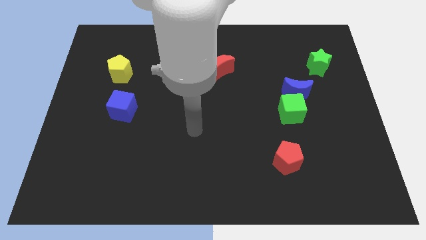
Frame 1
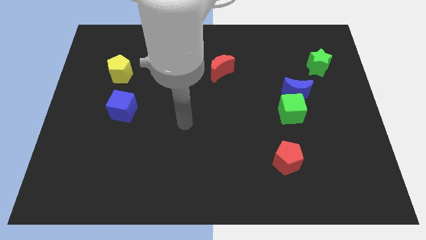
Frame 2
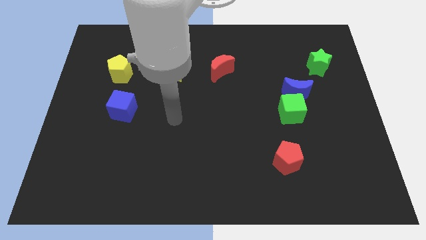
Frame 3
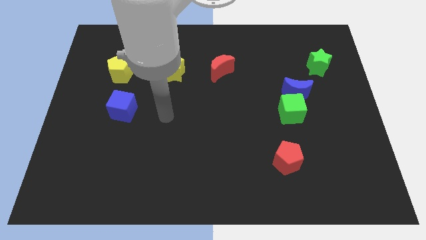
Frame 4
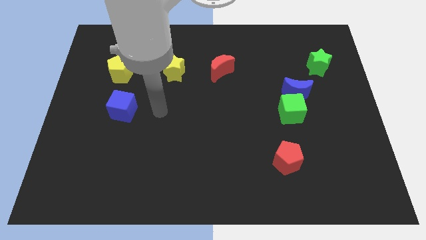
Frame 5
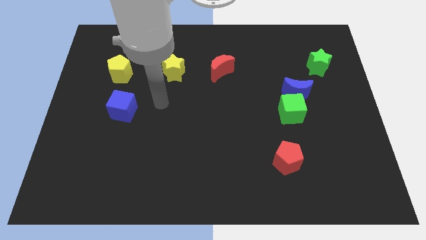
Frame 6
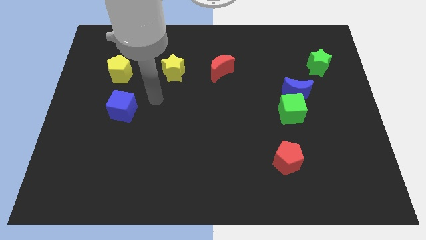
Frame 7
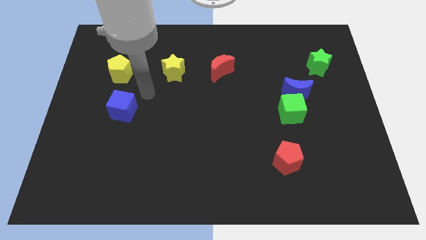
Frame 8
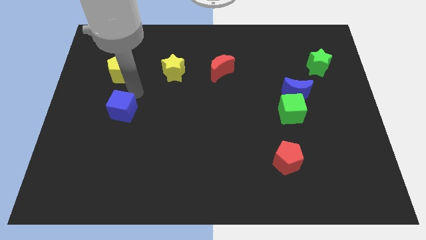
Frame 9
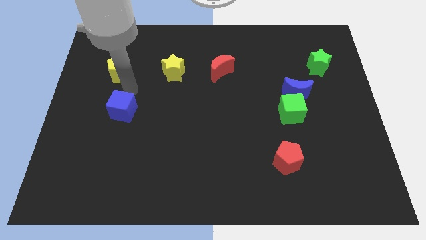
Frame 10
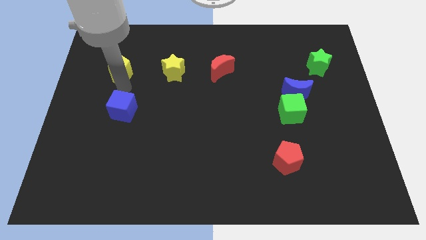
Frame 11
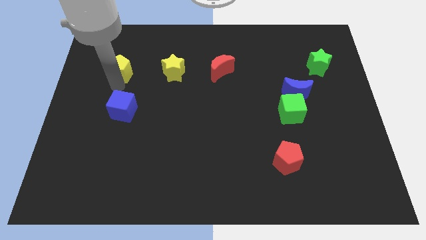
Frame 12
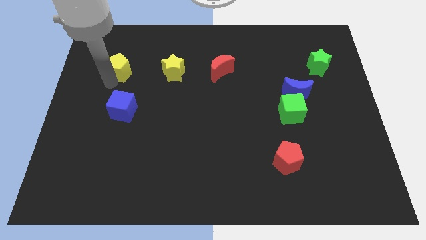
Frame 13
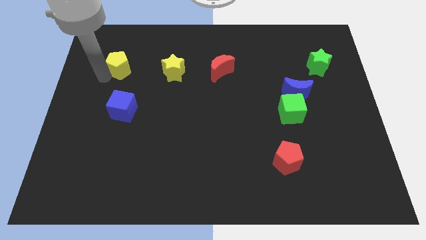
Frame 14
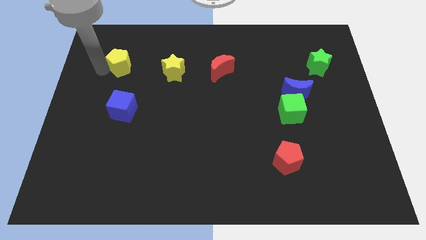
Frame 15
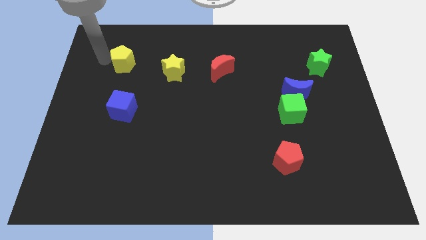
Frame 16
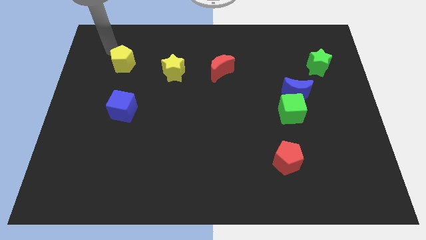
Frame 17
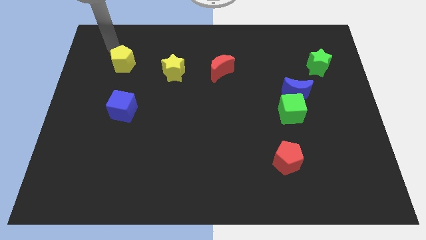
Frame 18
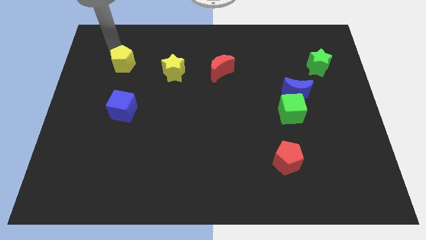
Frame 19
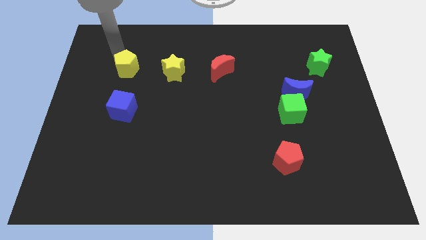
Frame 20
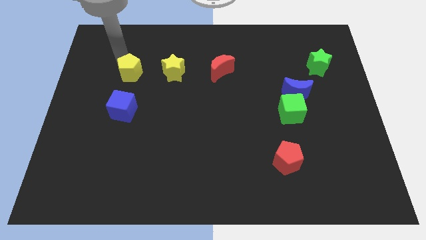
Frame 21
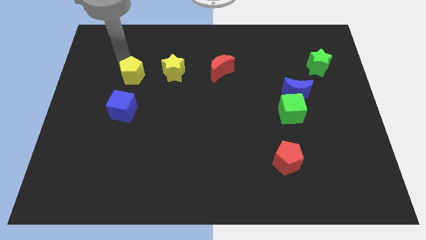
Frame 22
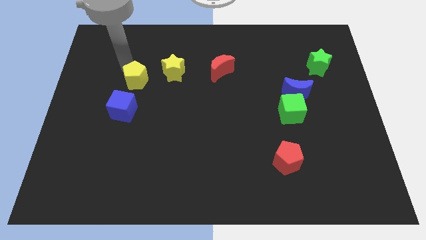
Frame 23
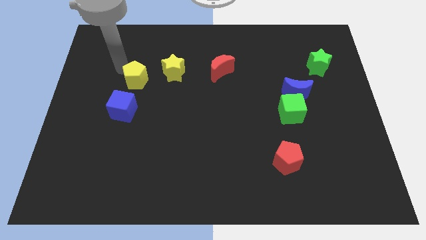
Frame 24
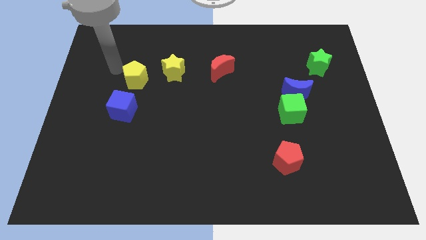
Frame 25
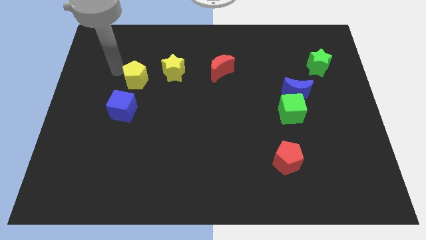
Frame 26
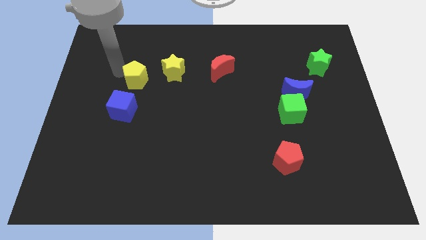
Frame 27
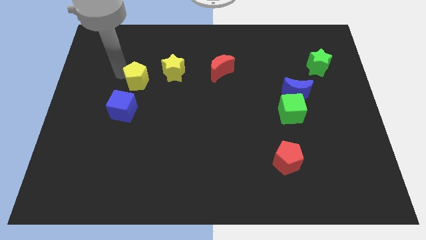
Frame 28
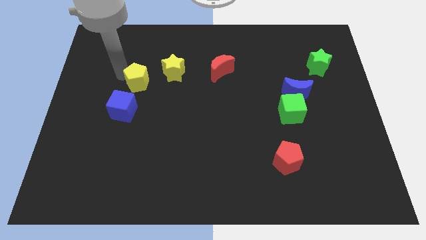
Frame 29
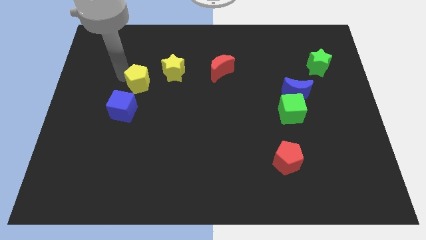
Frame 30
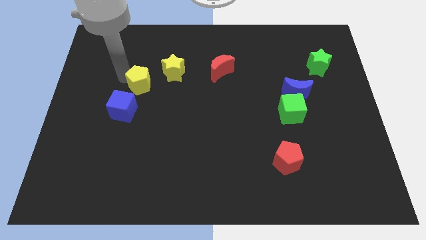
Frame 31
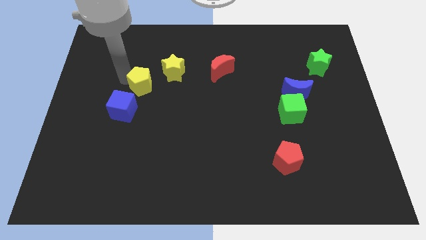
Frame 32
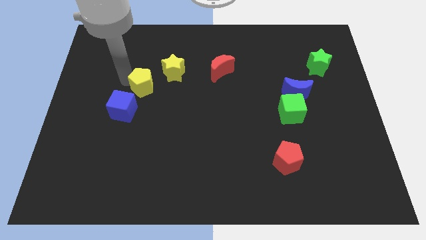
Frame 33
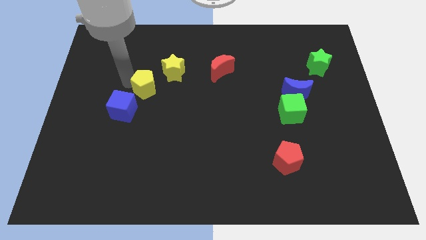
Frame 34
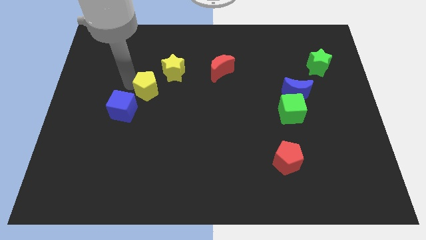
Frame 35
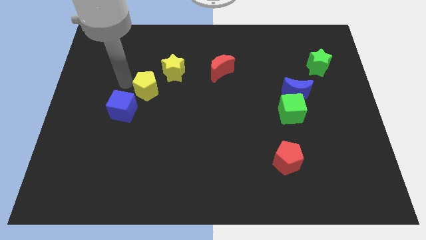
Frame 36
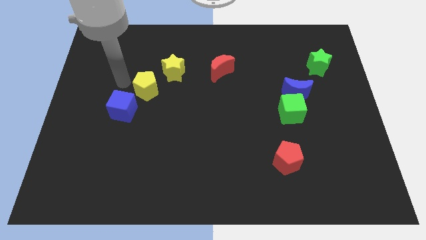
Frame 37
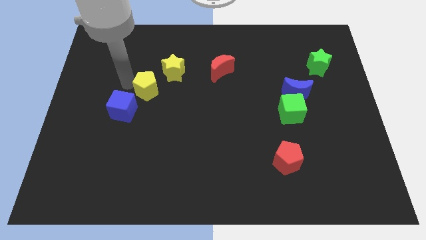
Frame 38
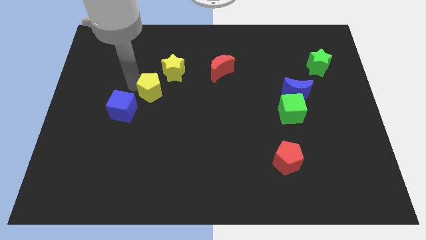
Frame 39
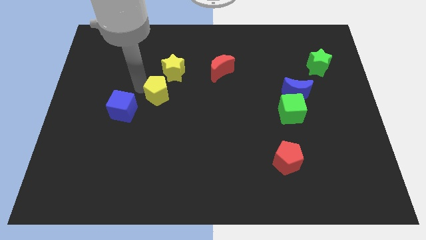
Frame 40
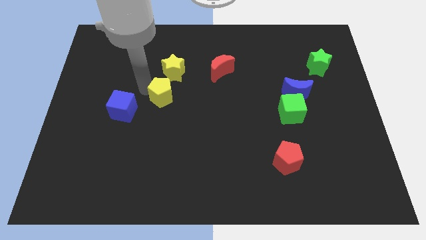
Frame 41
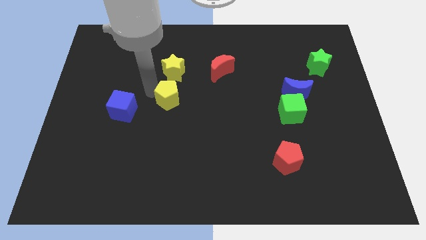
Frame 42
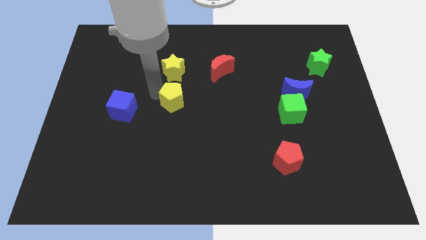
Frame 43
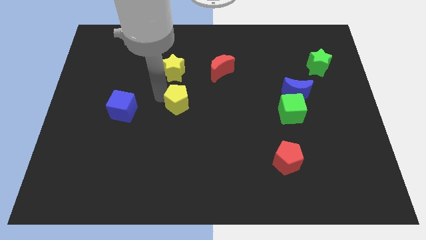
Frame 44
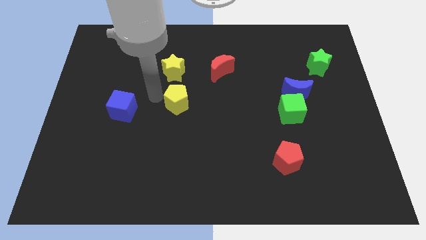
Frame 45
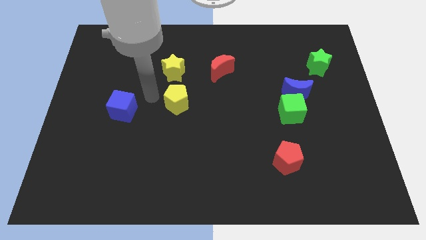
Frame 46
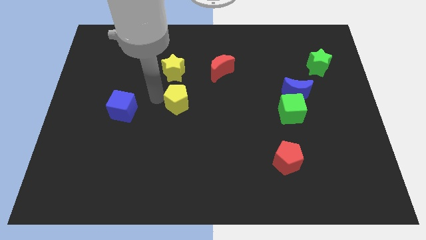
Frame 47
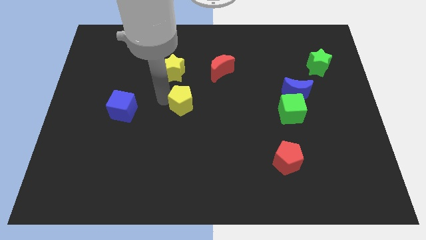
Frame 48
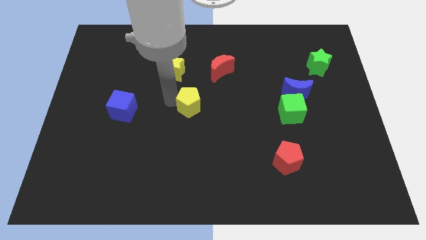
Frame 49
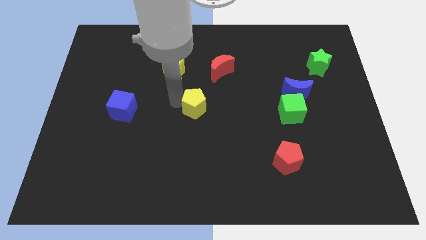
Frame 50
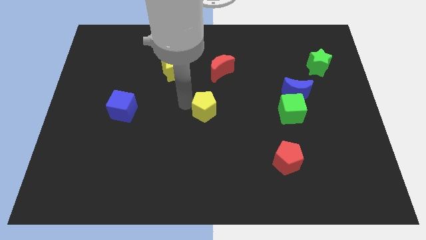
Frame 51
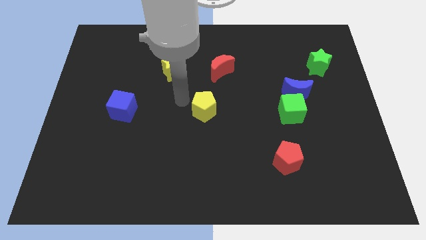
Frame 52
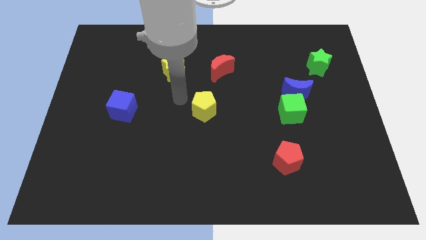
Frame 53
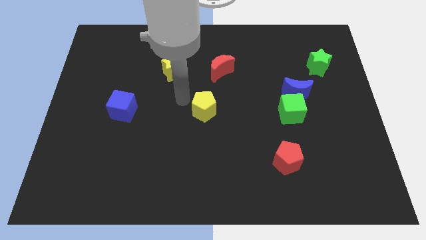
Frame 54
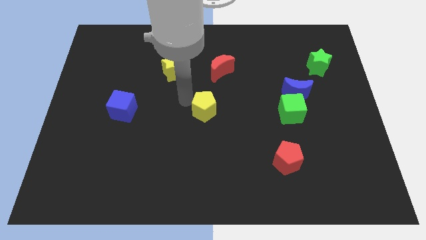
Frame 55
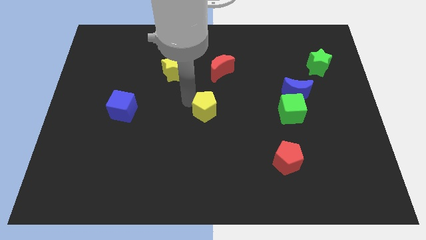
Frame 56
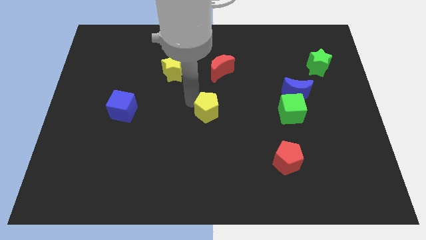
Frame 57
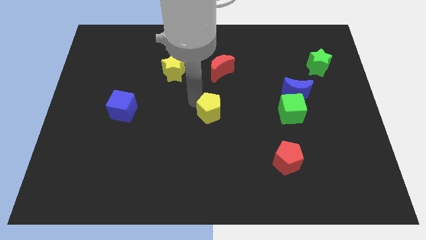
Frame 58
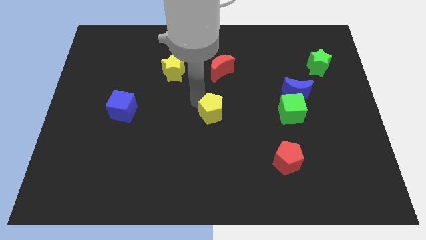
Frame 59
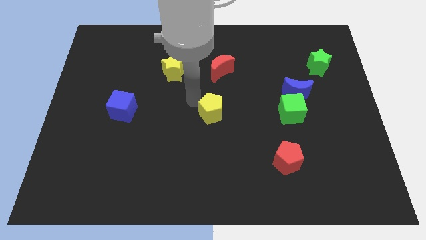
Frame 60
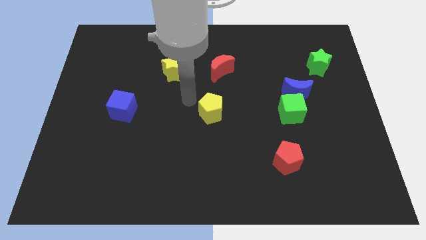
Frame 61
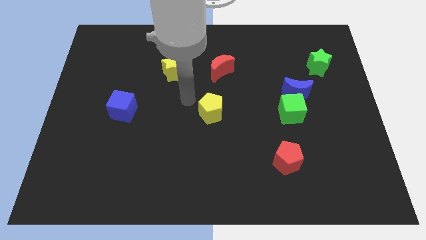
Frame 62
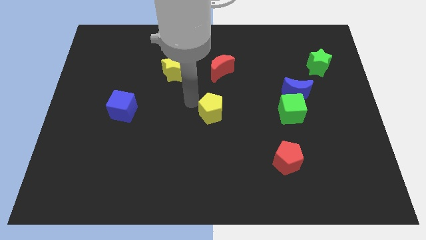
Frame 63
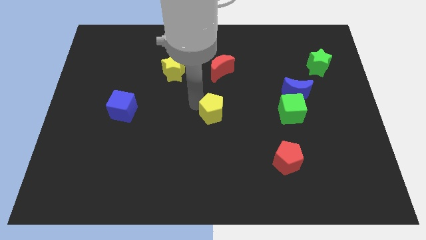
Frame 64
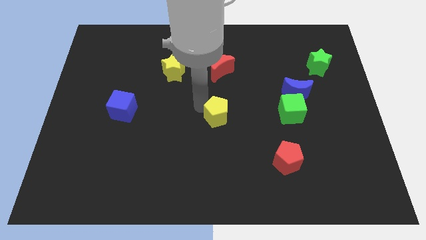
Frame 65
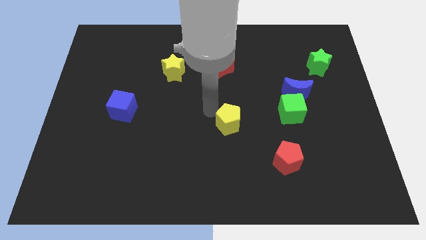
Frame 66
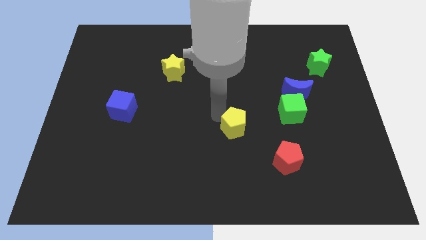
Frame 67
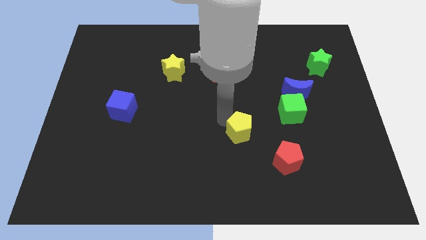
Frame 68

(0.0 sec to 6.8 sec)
move the yellow pentagon to the top left side of the red pentagon
